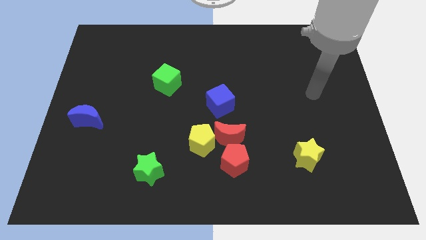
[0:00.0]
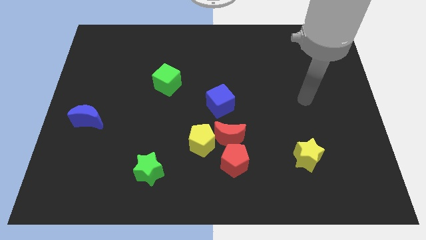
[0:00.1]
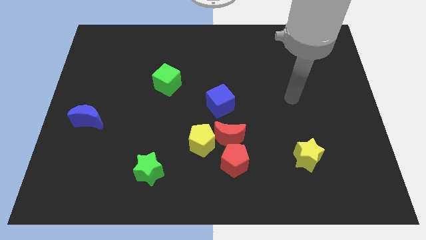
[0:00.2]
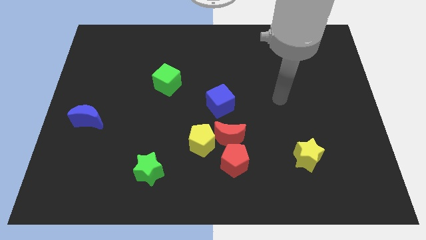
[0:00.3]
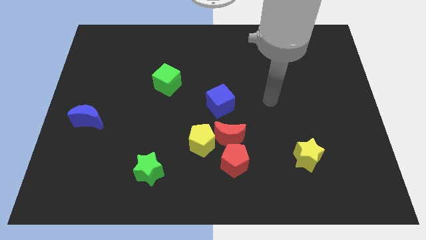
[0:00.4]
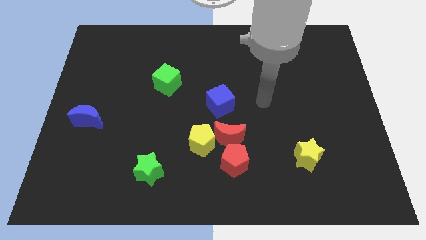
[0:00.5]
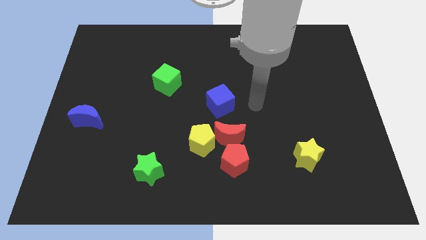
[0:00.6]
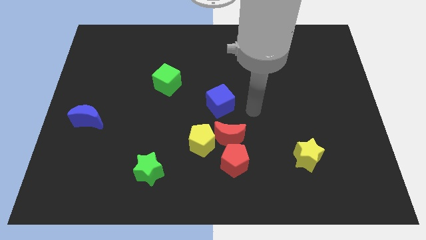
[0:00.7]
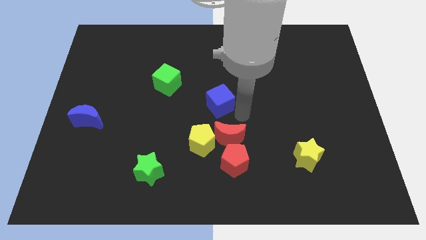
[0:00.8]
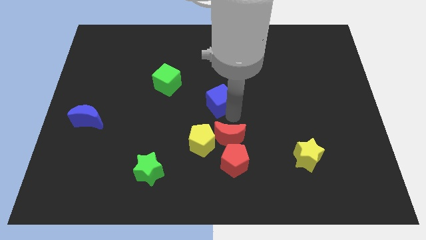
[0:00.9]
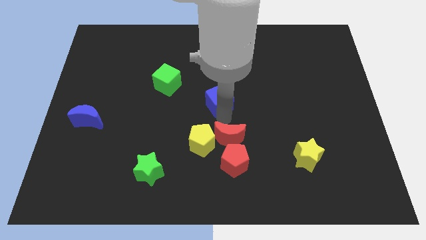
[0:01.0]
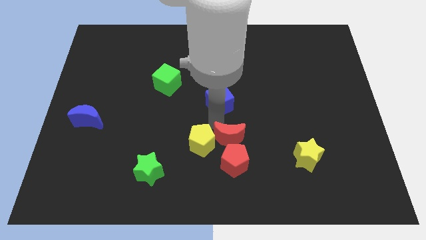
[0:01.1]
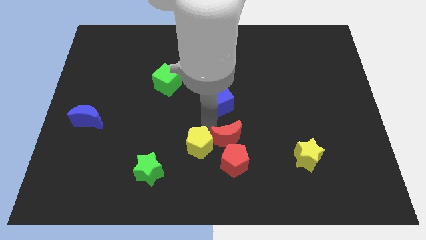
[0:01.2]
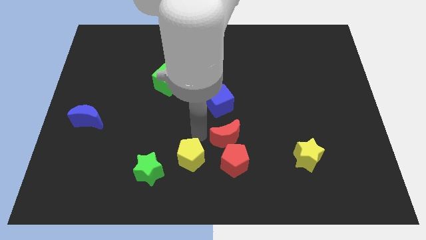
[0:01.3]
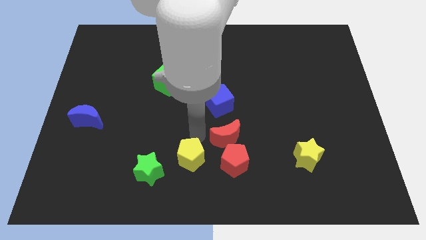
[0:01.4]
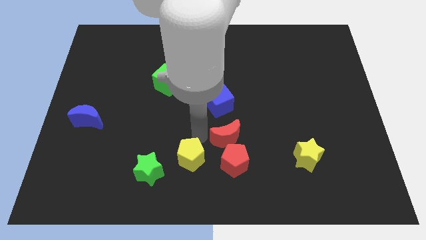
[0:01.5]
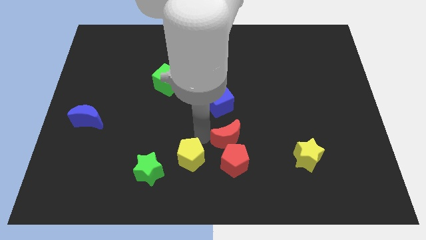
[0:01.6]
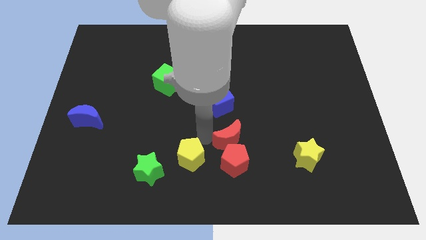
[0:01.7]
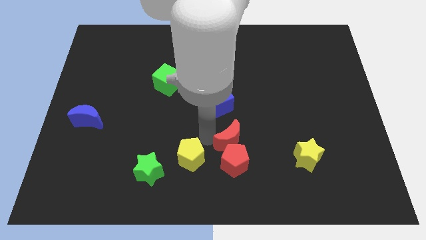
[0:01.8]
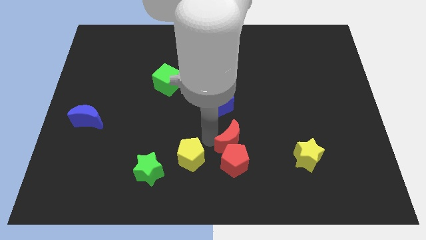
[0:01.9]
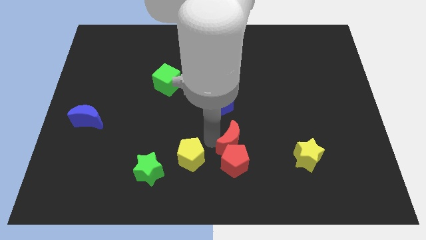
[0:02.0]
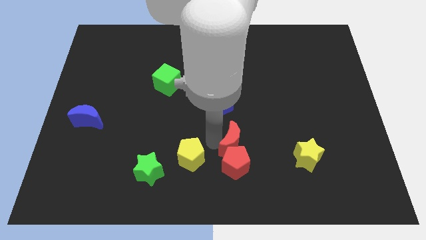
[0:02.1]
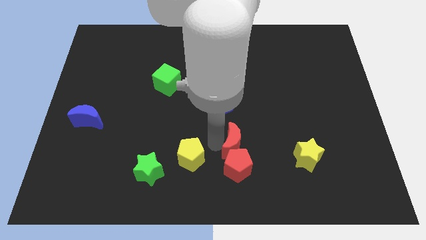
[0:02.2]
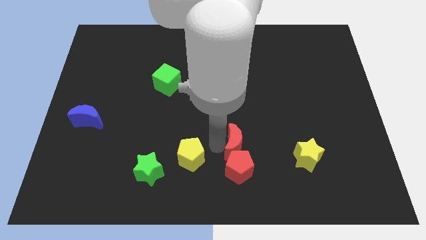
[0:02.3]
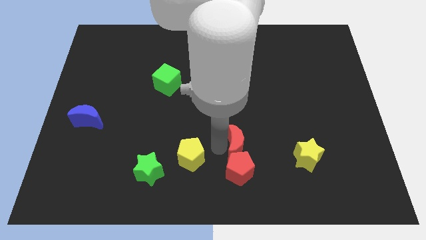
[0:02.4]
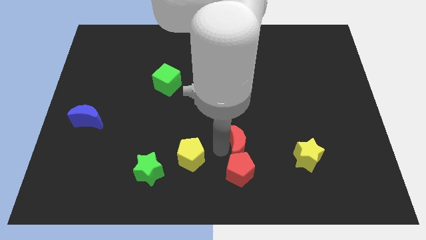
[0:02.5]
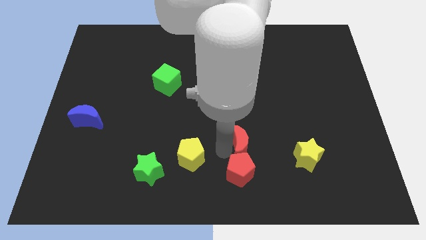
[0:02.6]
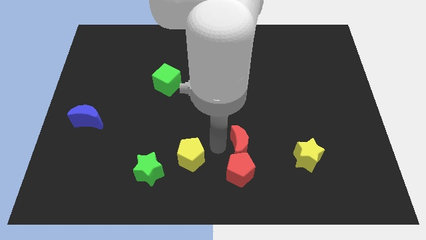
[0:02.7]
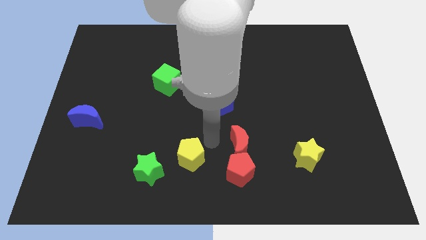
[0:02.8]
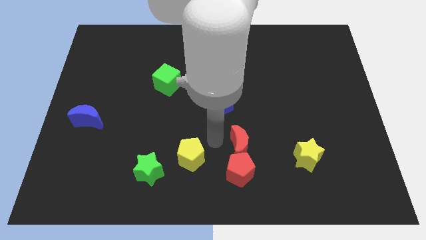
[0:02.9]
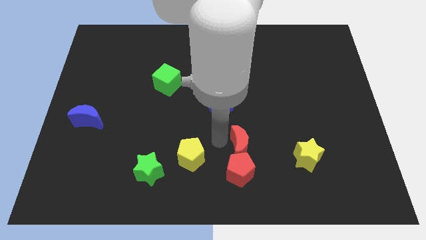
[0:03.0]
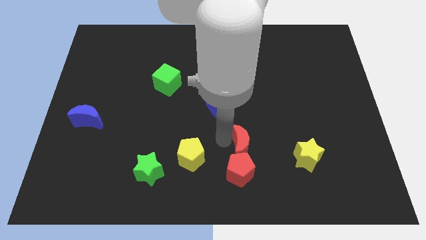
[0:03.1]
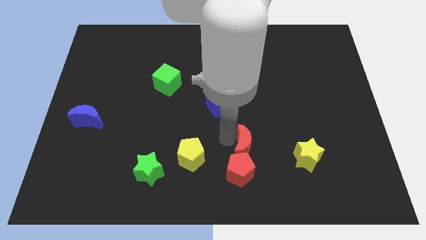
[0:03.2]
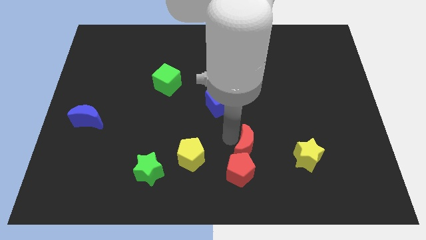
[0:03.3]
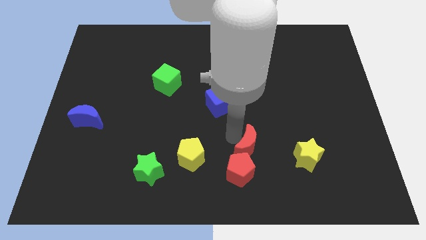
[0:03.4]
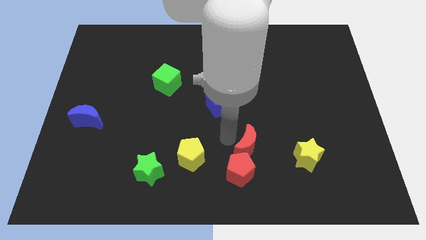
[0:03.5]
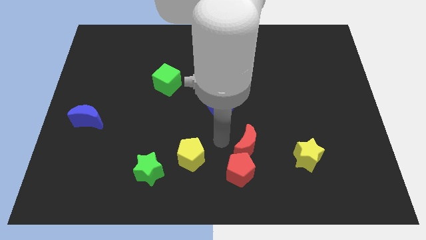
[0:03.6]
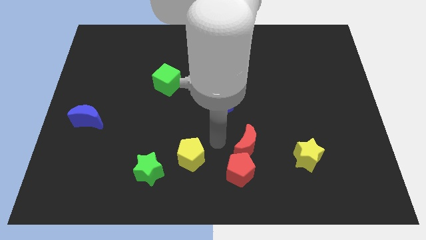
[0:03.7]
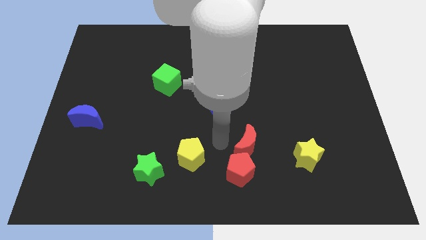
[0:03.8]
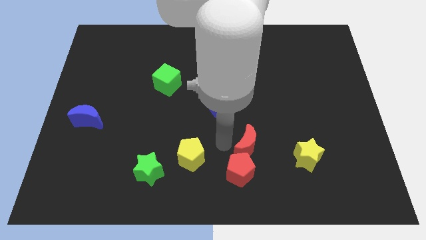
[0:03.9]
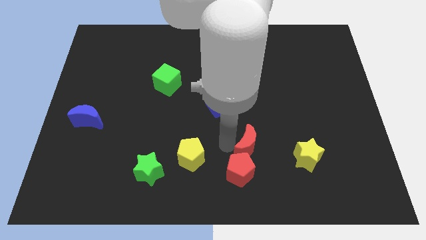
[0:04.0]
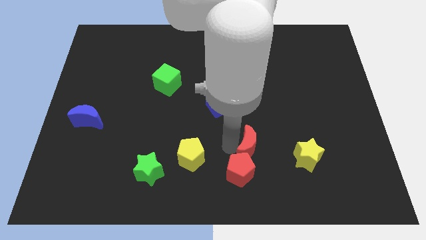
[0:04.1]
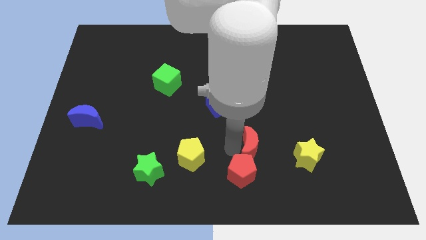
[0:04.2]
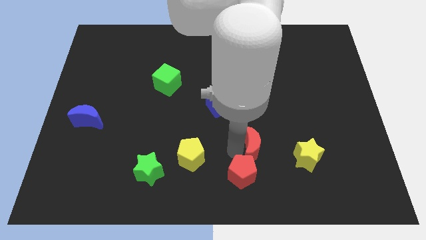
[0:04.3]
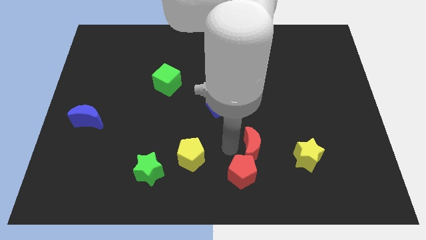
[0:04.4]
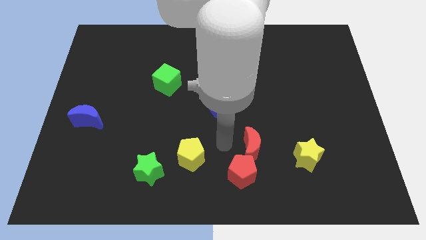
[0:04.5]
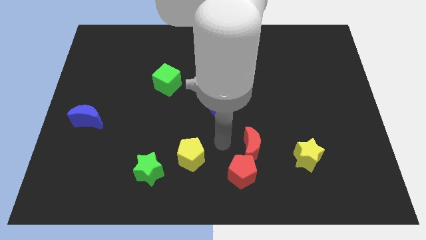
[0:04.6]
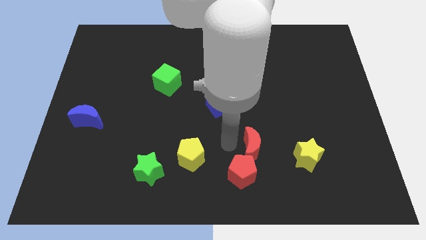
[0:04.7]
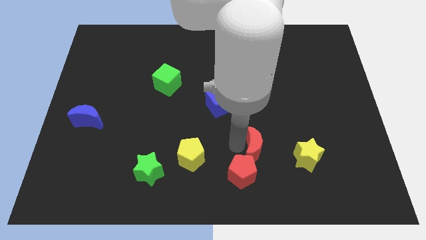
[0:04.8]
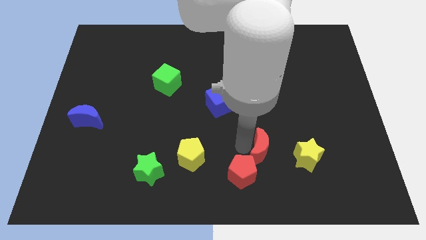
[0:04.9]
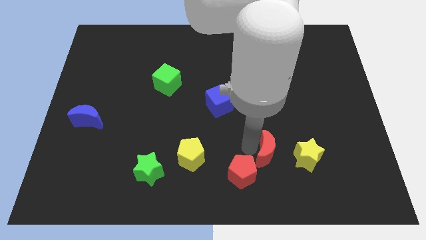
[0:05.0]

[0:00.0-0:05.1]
pull the red moon apart from the group

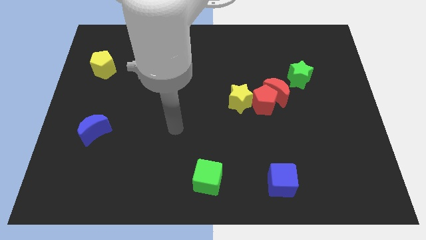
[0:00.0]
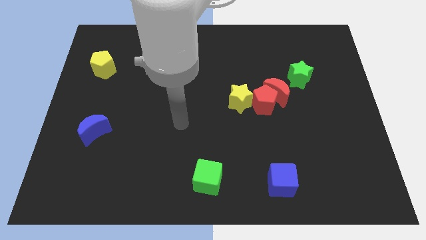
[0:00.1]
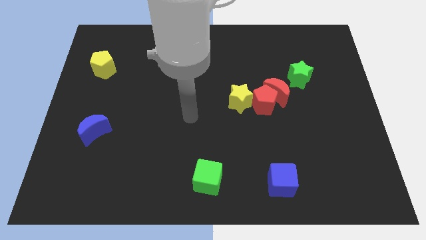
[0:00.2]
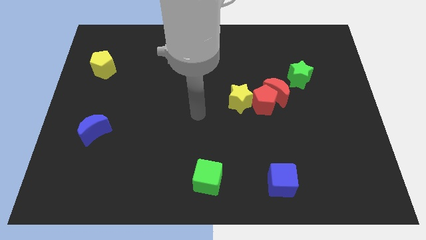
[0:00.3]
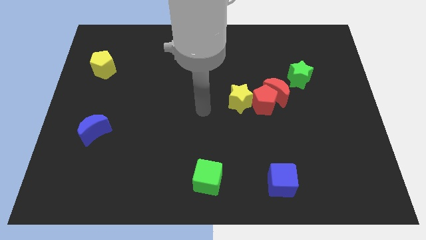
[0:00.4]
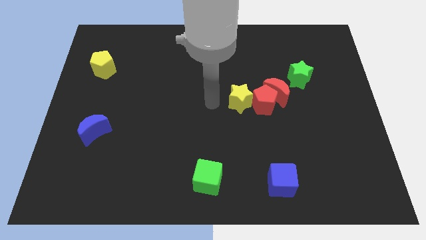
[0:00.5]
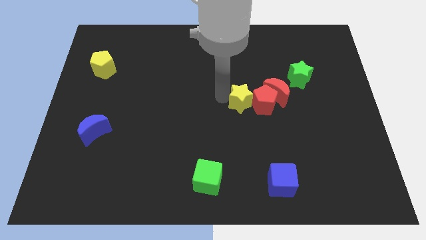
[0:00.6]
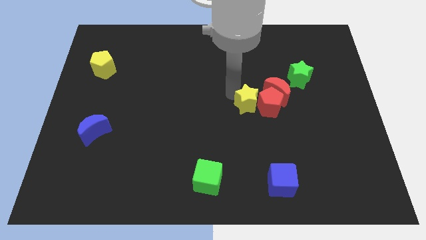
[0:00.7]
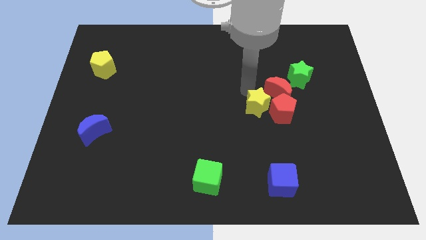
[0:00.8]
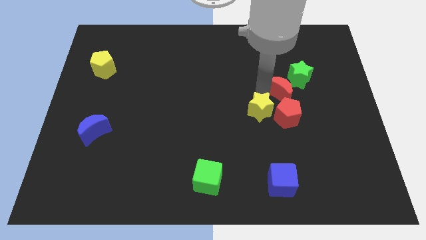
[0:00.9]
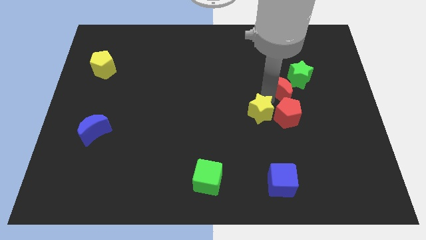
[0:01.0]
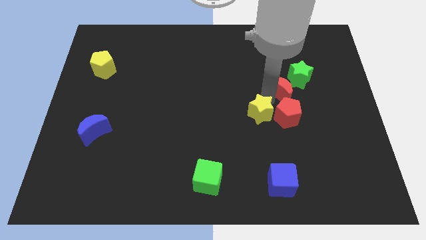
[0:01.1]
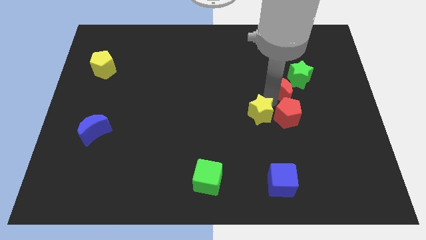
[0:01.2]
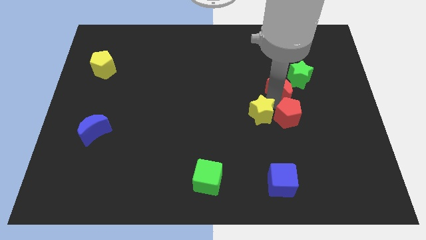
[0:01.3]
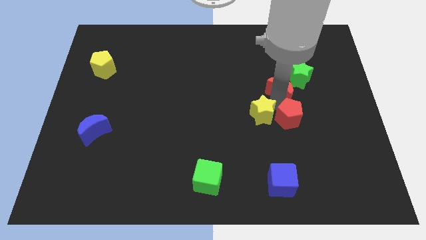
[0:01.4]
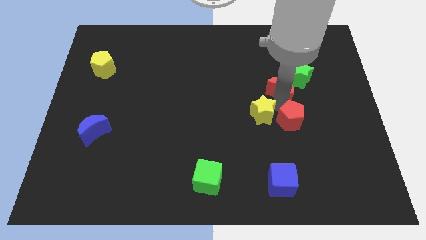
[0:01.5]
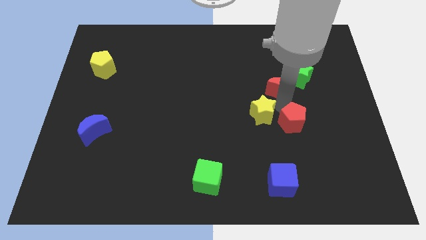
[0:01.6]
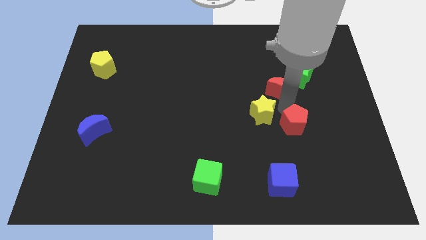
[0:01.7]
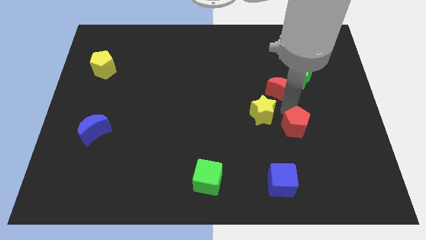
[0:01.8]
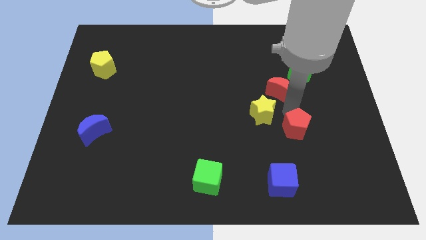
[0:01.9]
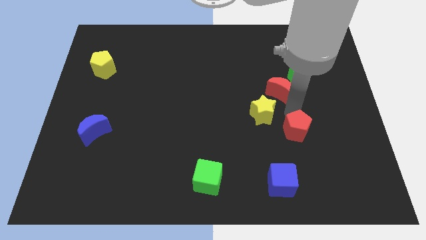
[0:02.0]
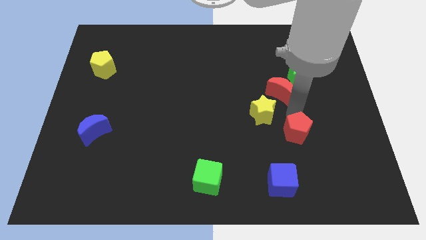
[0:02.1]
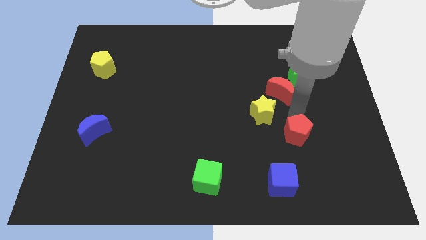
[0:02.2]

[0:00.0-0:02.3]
separate the red pentagon from the red moon and yellow star

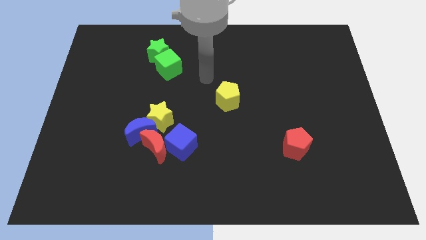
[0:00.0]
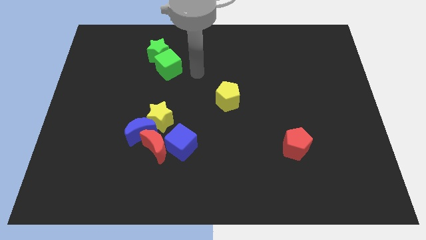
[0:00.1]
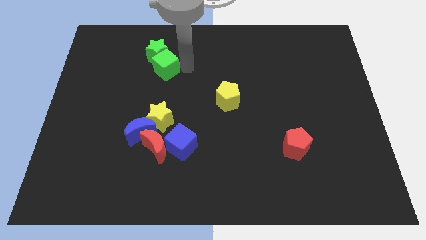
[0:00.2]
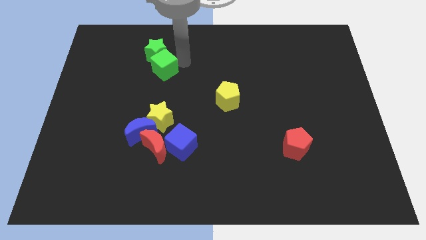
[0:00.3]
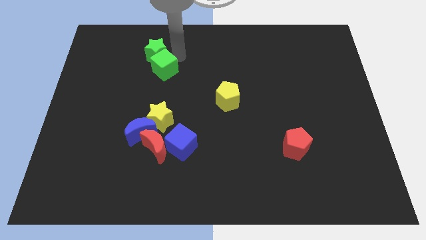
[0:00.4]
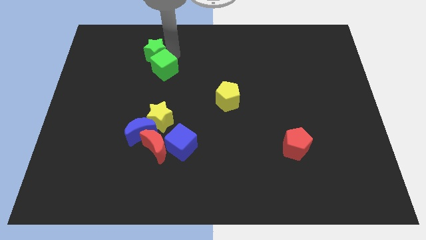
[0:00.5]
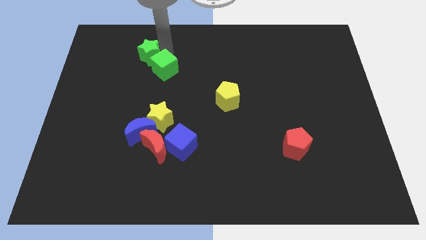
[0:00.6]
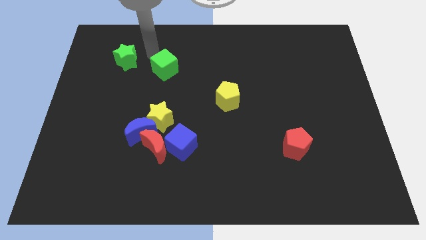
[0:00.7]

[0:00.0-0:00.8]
move the green cube away from the green star

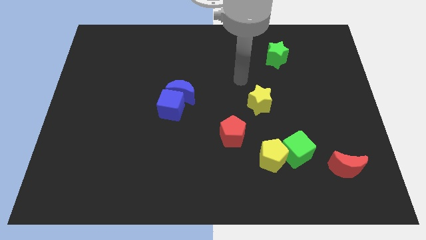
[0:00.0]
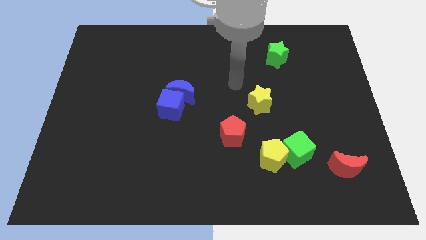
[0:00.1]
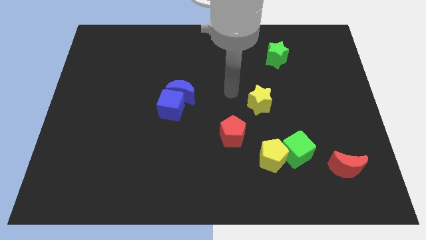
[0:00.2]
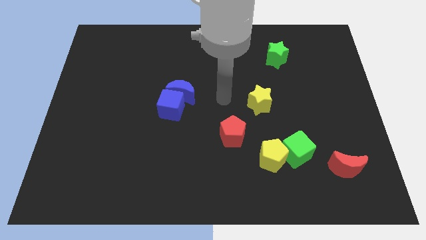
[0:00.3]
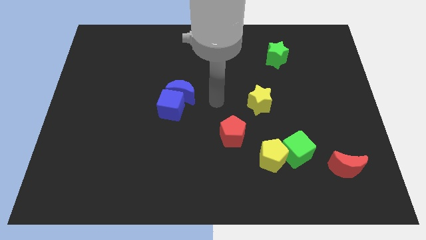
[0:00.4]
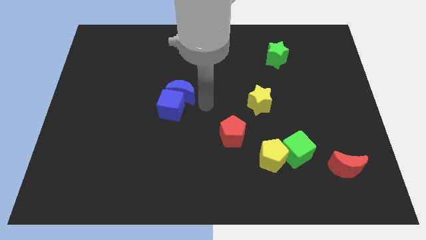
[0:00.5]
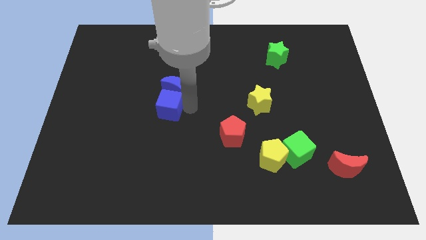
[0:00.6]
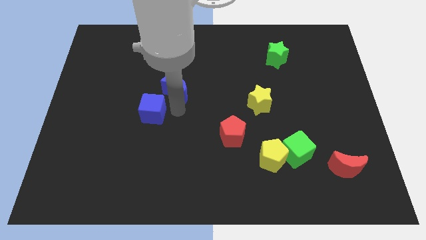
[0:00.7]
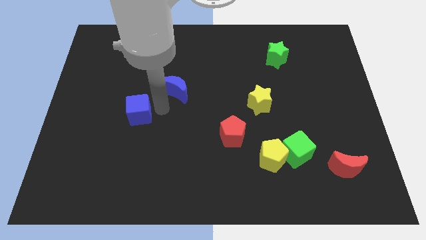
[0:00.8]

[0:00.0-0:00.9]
pull the blue moon apart from the blue cube
